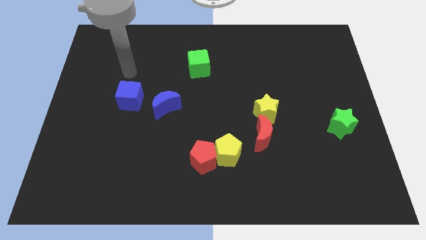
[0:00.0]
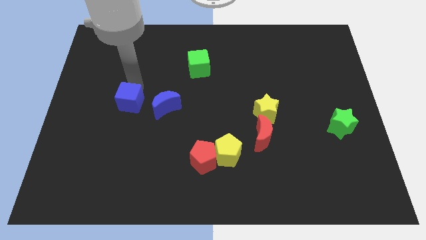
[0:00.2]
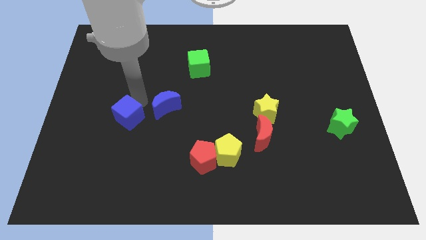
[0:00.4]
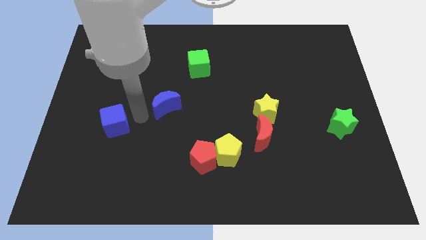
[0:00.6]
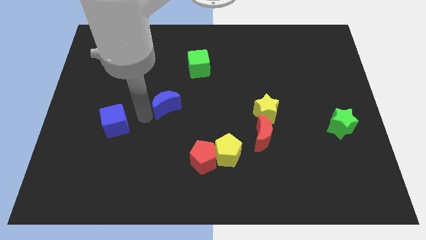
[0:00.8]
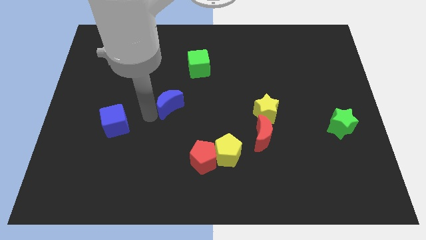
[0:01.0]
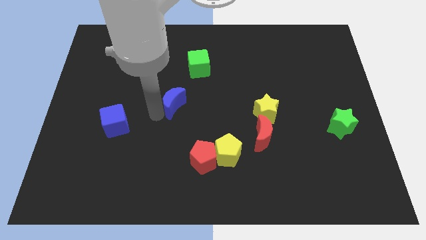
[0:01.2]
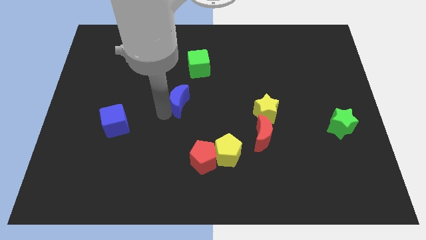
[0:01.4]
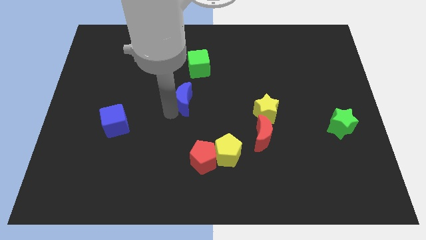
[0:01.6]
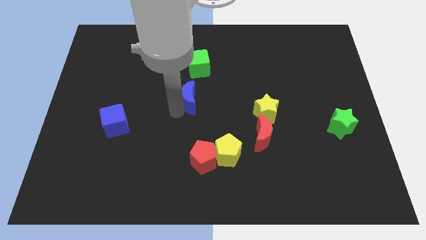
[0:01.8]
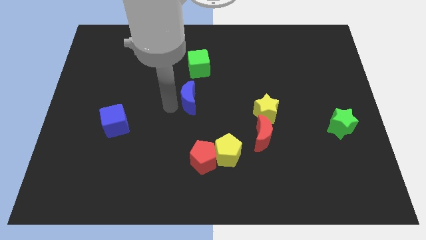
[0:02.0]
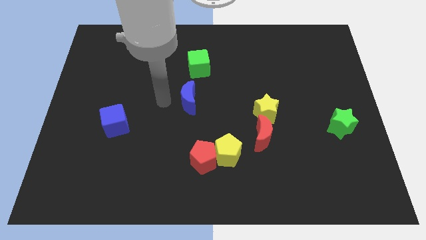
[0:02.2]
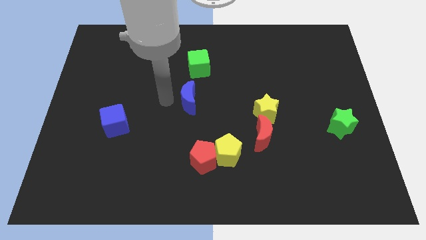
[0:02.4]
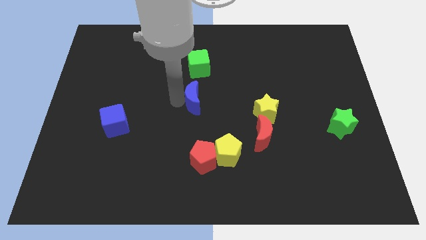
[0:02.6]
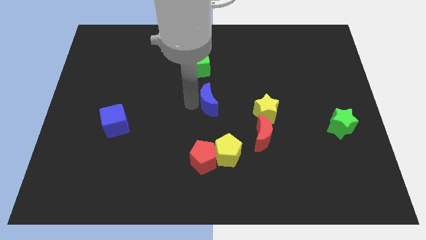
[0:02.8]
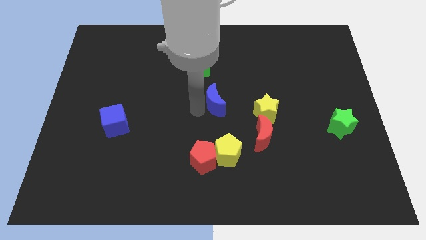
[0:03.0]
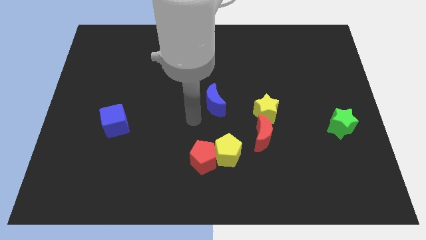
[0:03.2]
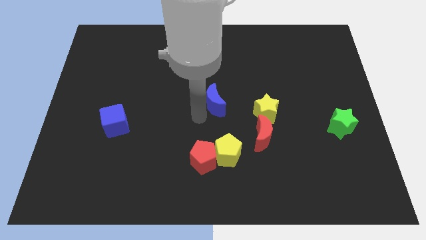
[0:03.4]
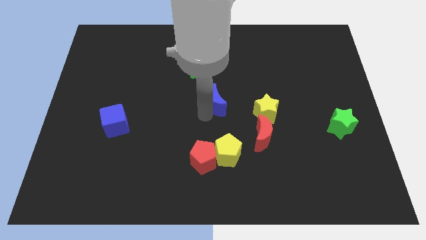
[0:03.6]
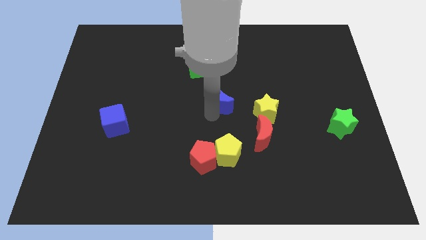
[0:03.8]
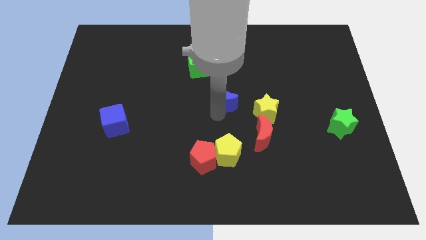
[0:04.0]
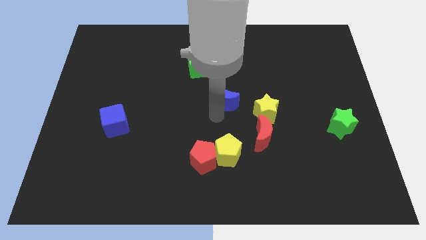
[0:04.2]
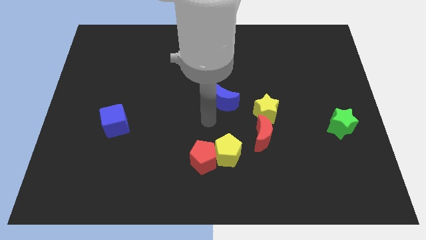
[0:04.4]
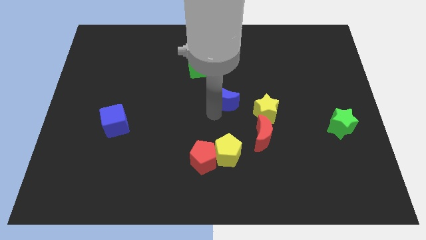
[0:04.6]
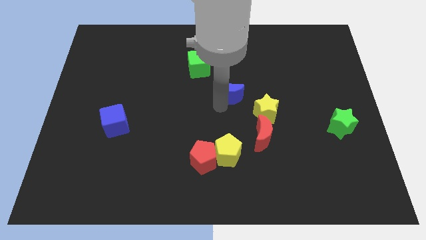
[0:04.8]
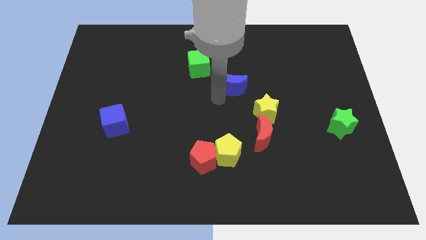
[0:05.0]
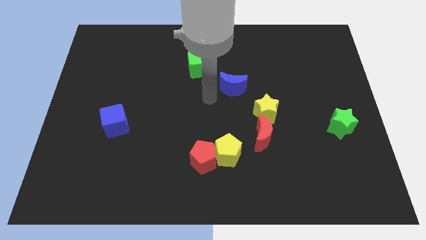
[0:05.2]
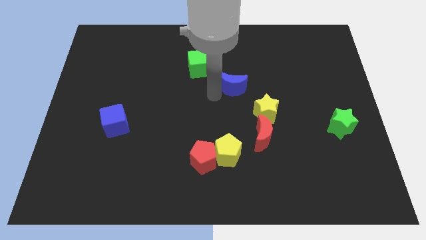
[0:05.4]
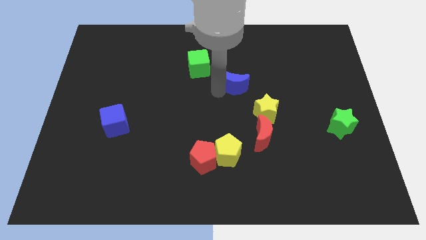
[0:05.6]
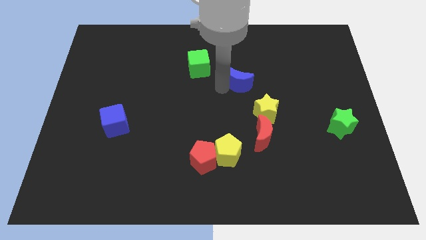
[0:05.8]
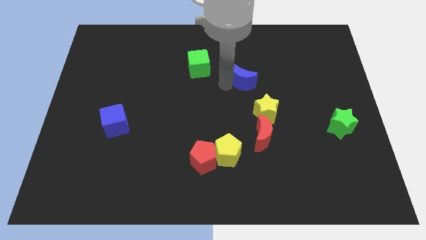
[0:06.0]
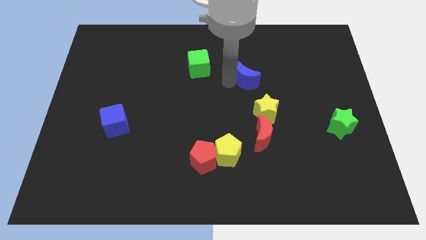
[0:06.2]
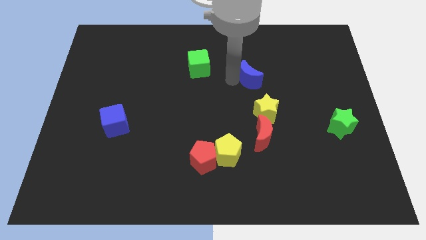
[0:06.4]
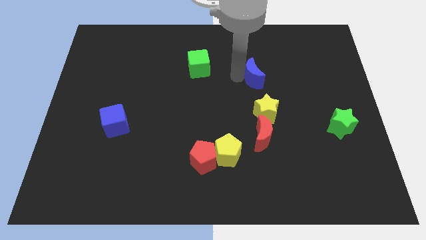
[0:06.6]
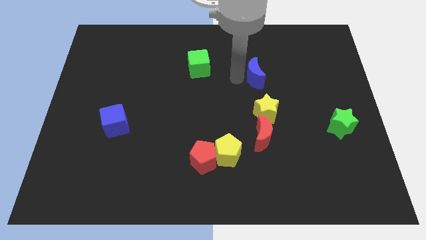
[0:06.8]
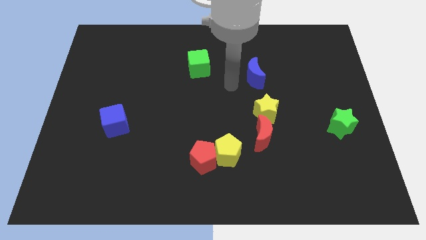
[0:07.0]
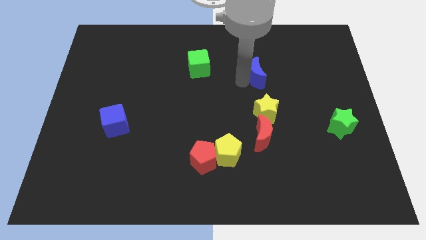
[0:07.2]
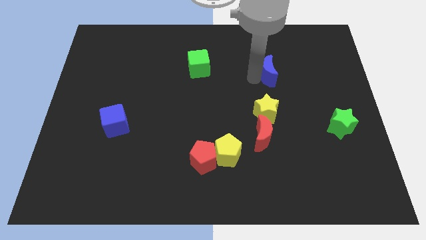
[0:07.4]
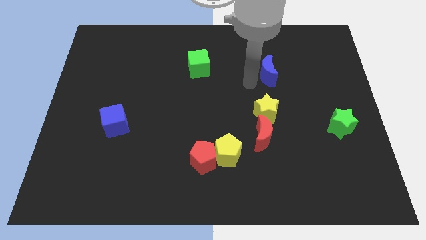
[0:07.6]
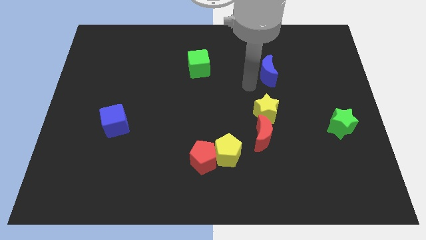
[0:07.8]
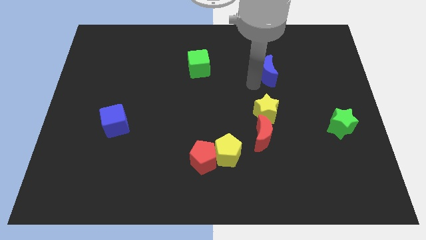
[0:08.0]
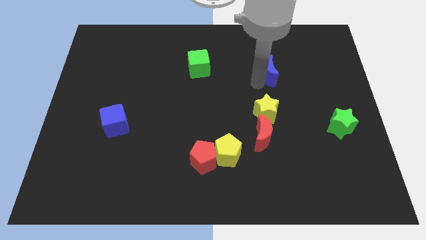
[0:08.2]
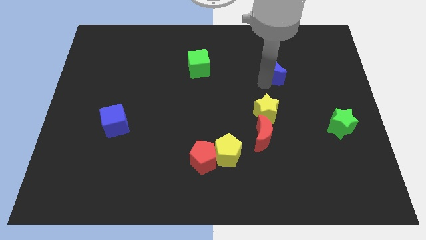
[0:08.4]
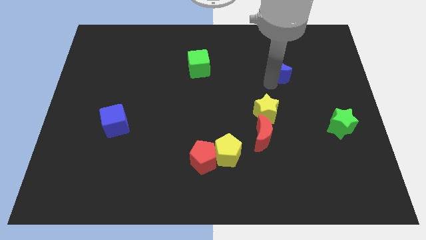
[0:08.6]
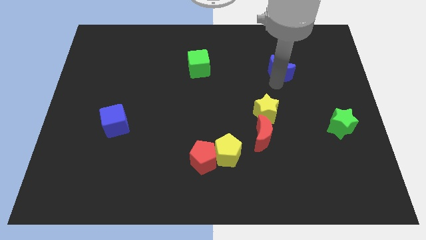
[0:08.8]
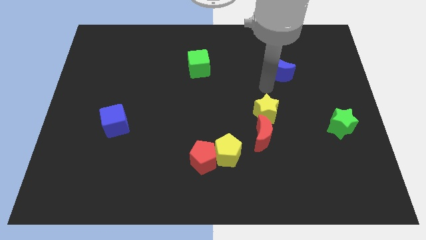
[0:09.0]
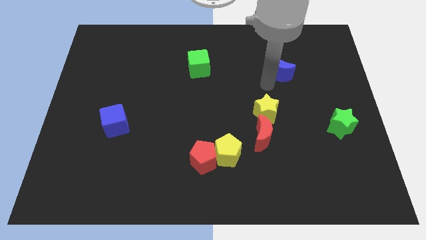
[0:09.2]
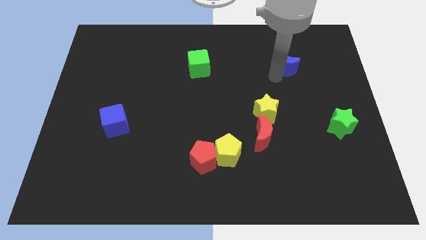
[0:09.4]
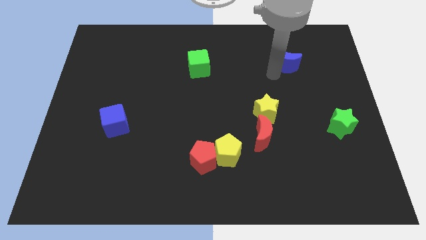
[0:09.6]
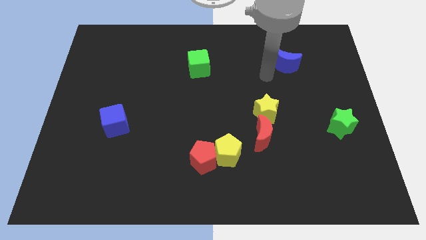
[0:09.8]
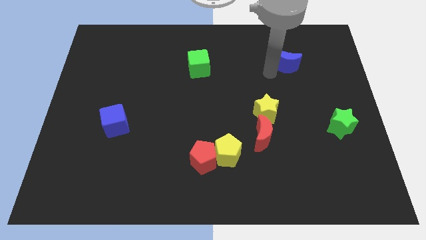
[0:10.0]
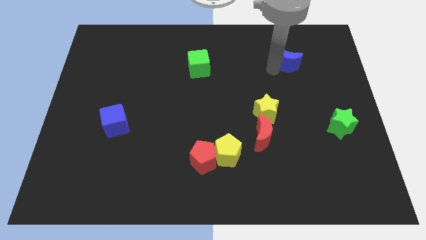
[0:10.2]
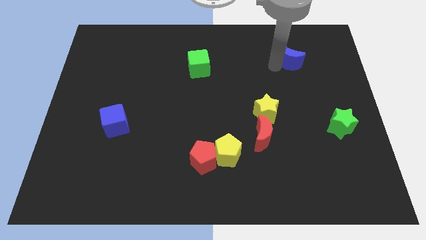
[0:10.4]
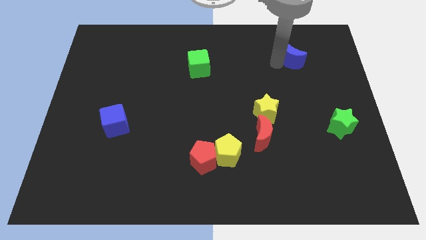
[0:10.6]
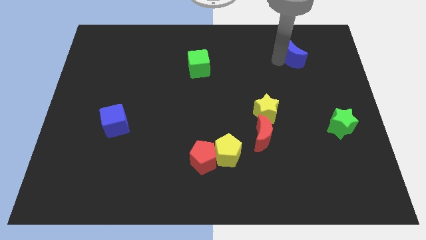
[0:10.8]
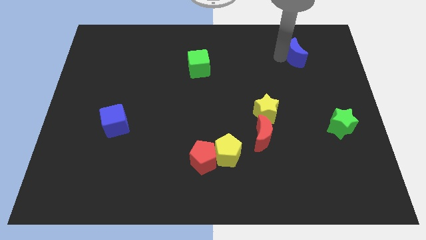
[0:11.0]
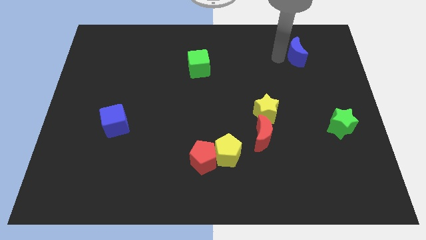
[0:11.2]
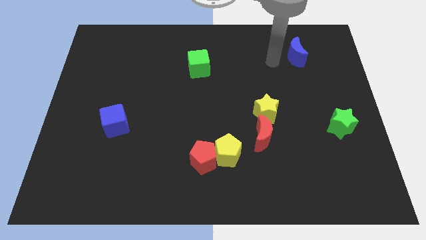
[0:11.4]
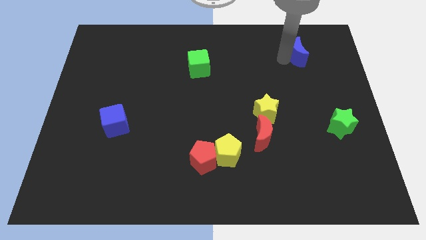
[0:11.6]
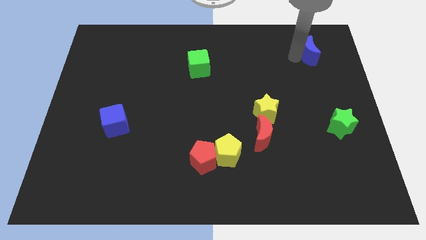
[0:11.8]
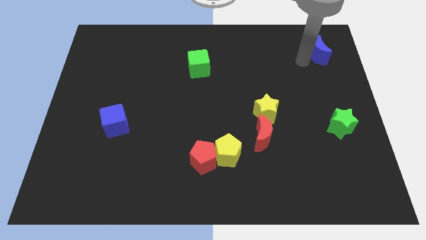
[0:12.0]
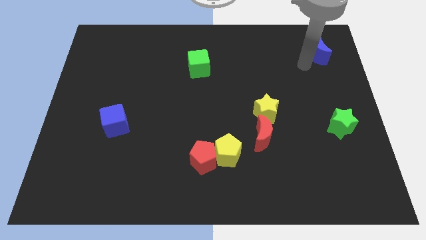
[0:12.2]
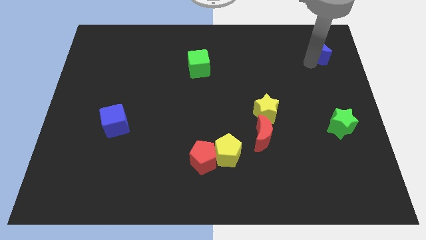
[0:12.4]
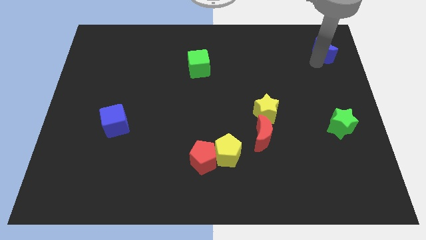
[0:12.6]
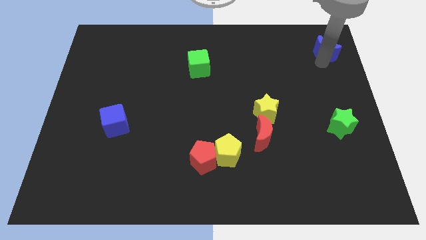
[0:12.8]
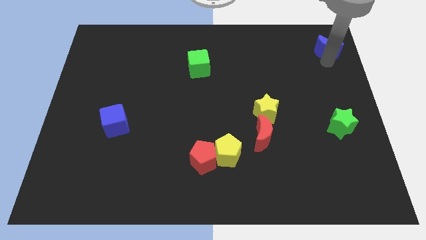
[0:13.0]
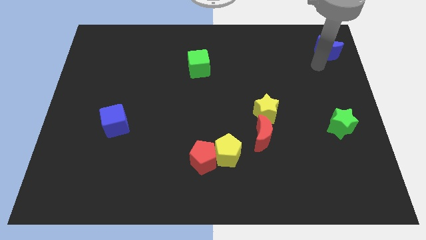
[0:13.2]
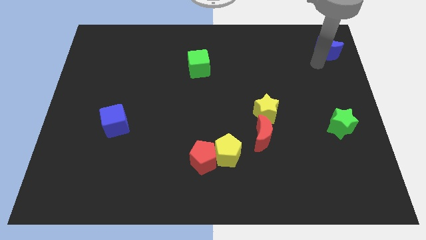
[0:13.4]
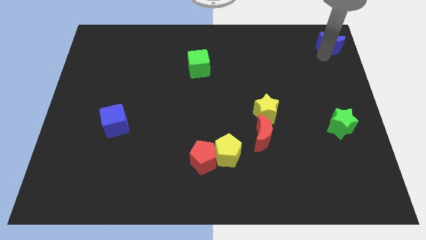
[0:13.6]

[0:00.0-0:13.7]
put the blue moon to the top right
